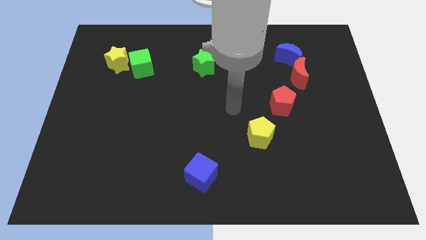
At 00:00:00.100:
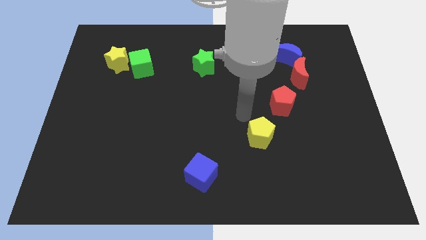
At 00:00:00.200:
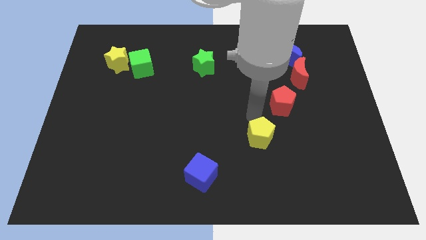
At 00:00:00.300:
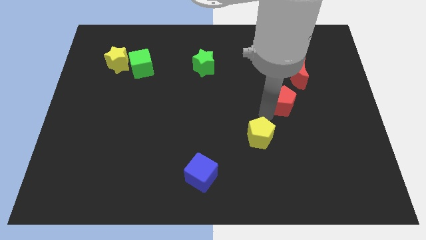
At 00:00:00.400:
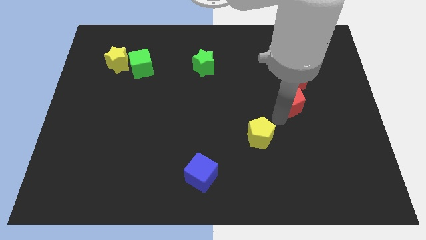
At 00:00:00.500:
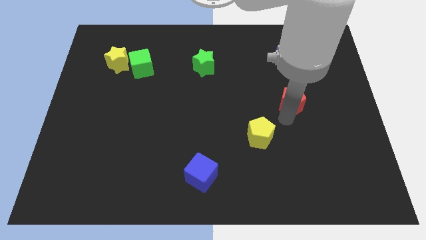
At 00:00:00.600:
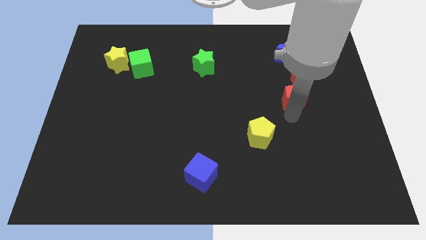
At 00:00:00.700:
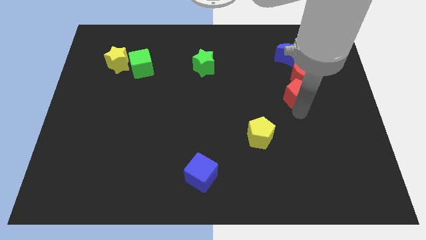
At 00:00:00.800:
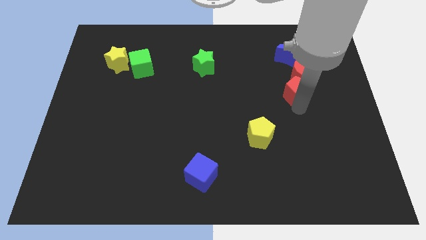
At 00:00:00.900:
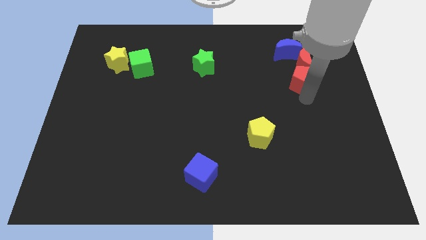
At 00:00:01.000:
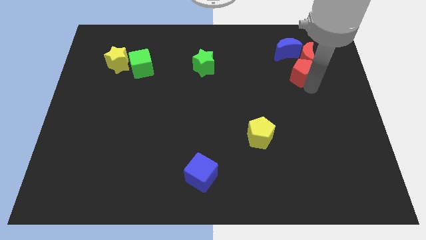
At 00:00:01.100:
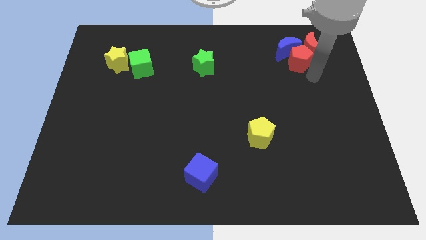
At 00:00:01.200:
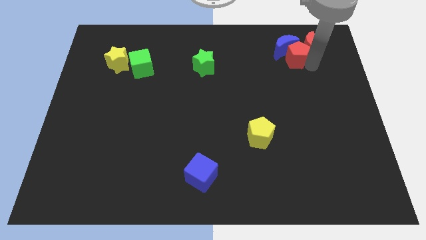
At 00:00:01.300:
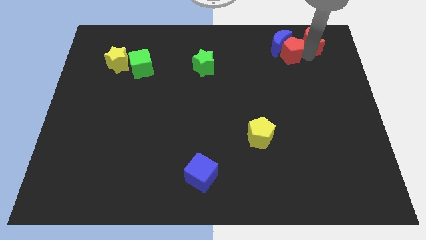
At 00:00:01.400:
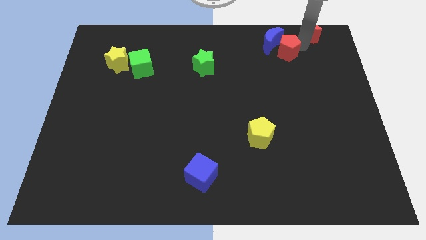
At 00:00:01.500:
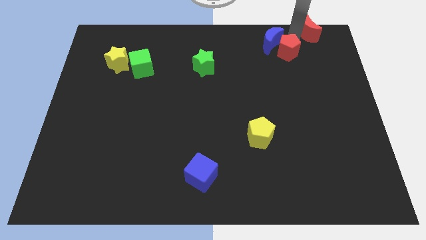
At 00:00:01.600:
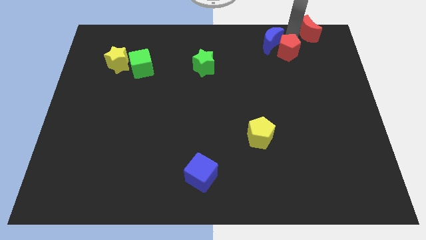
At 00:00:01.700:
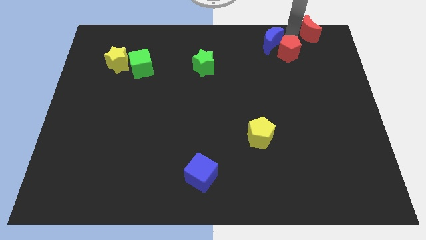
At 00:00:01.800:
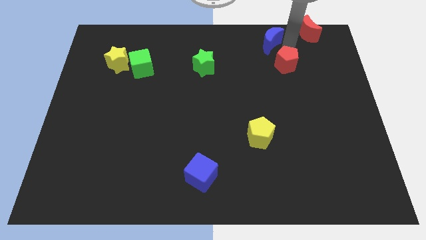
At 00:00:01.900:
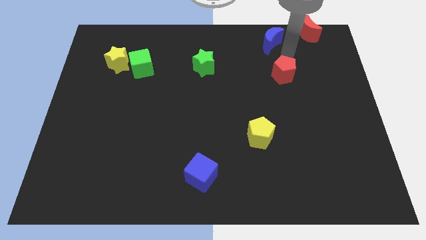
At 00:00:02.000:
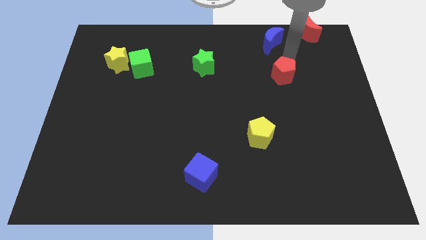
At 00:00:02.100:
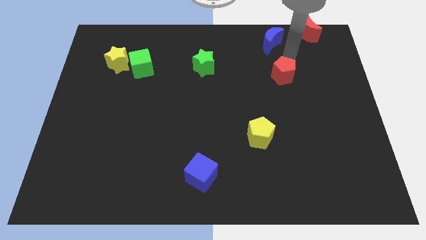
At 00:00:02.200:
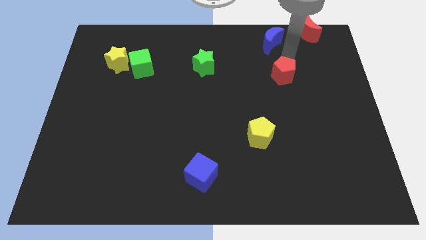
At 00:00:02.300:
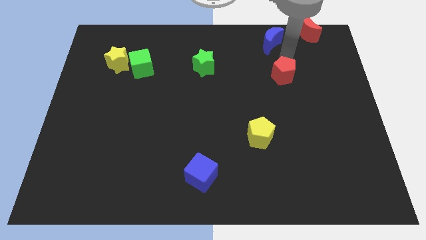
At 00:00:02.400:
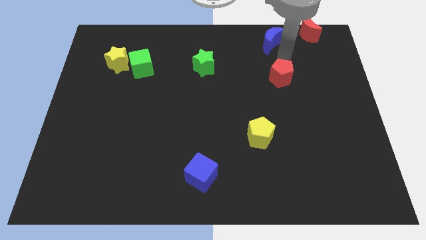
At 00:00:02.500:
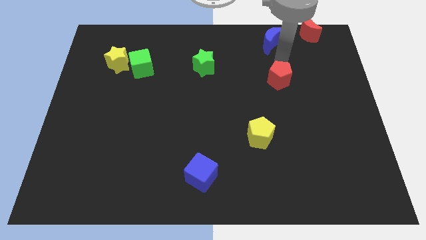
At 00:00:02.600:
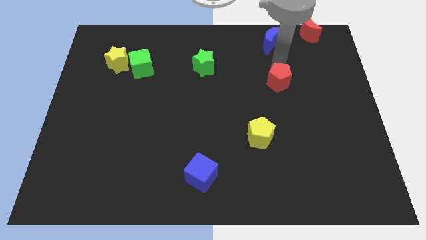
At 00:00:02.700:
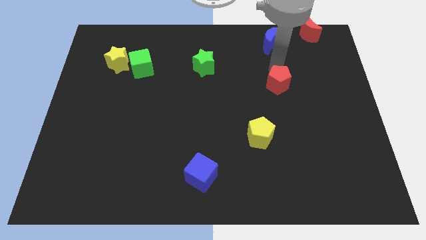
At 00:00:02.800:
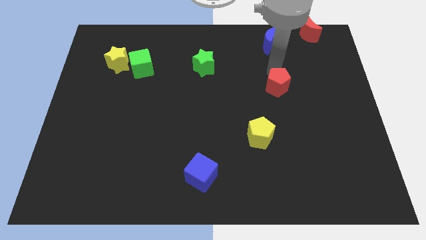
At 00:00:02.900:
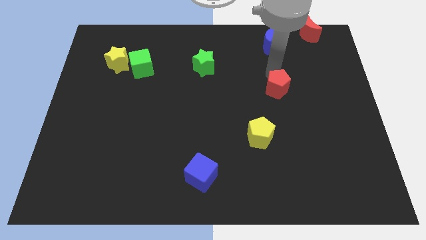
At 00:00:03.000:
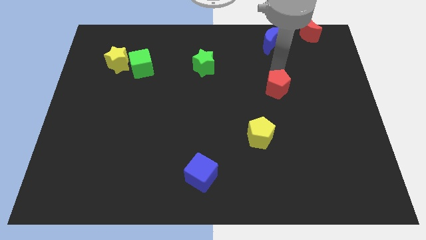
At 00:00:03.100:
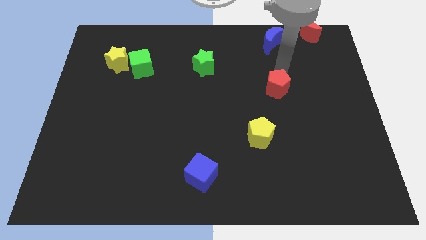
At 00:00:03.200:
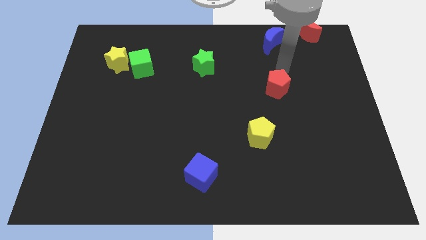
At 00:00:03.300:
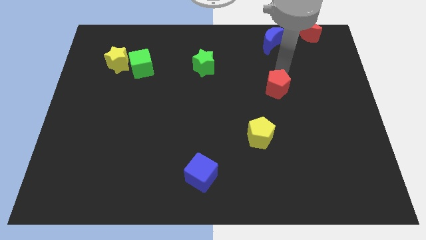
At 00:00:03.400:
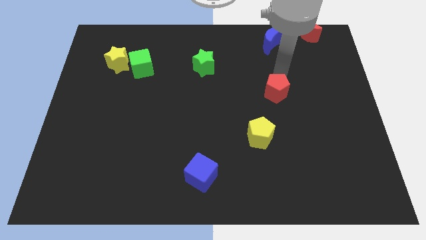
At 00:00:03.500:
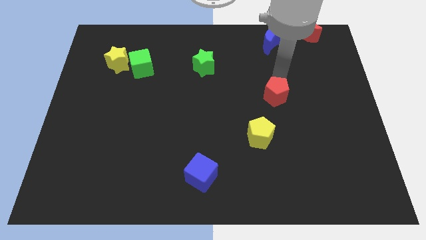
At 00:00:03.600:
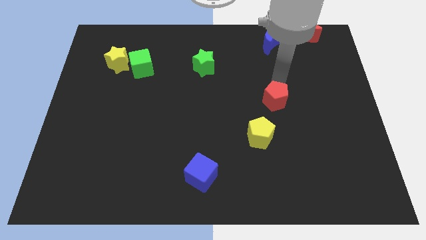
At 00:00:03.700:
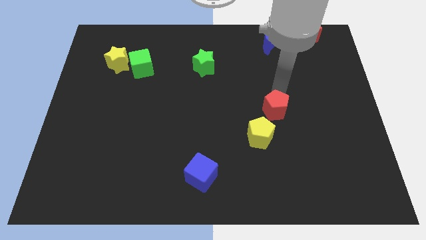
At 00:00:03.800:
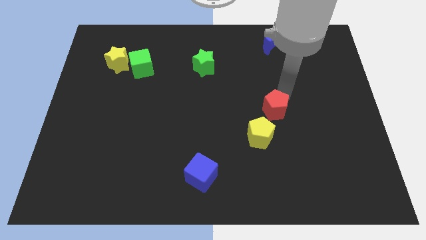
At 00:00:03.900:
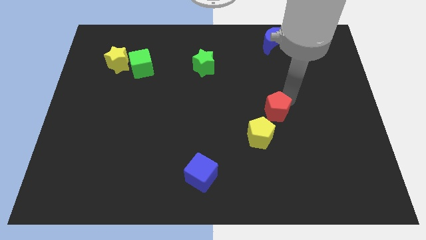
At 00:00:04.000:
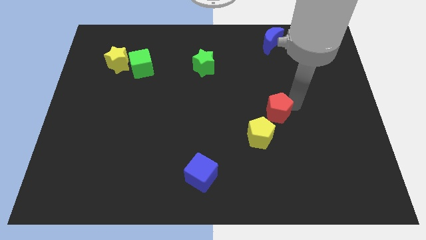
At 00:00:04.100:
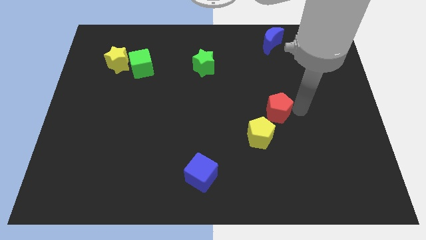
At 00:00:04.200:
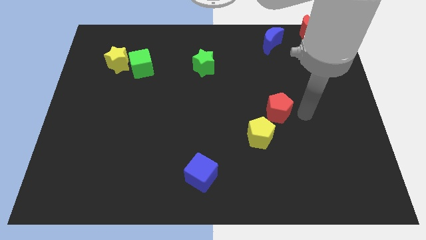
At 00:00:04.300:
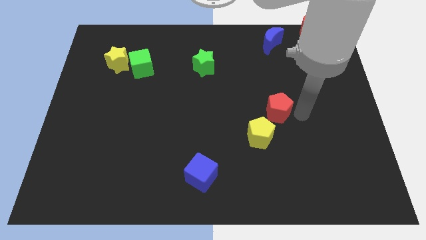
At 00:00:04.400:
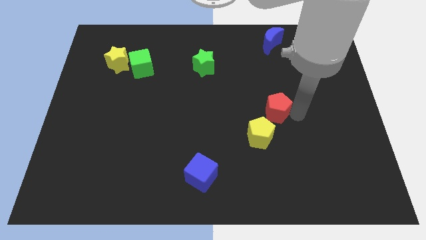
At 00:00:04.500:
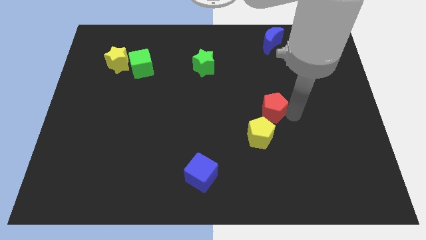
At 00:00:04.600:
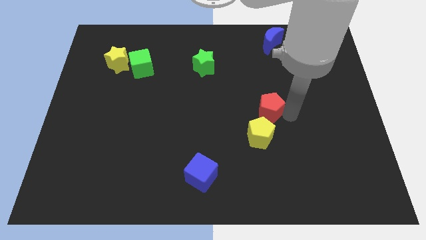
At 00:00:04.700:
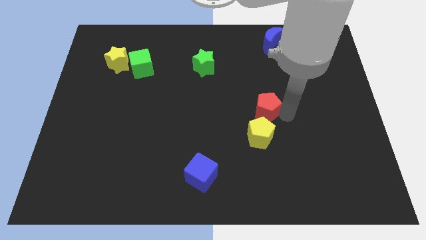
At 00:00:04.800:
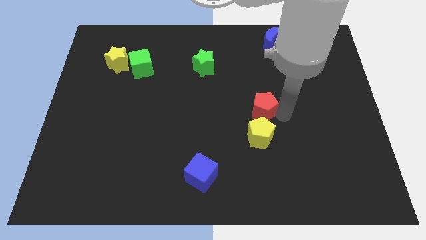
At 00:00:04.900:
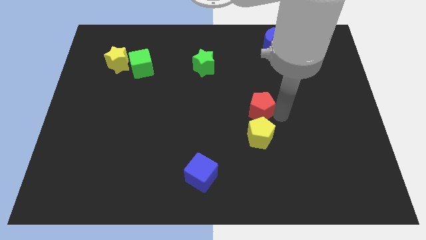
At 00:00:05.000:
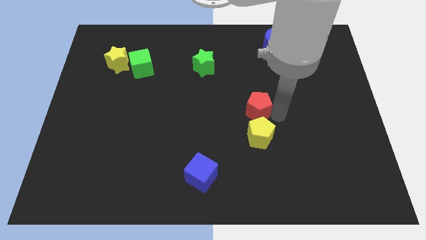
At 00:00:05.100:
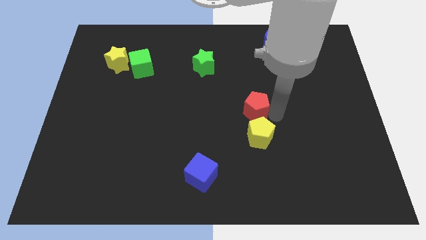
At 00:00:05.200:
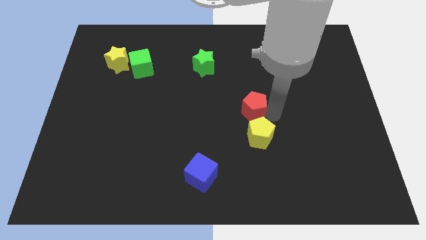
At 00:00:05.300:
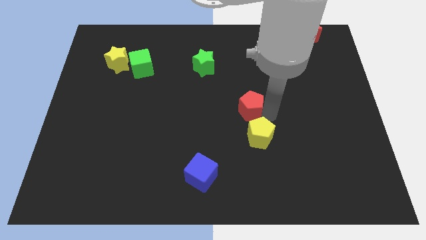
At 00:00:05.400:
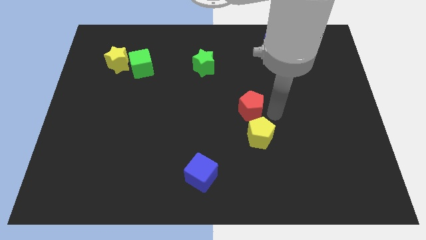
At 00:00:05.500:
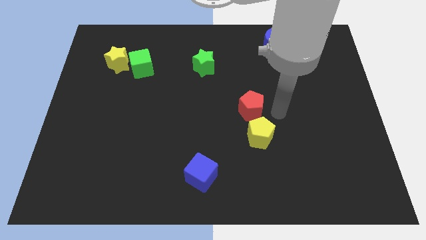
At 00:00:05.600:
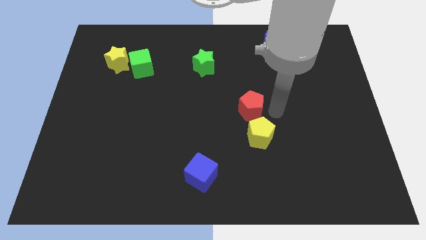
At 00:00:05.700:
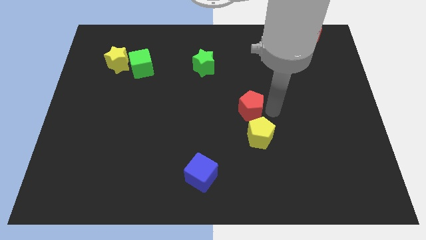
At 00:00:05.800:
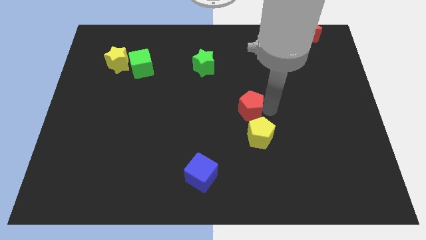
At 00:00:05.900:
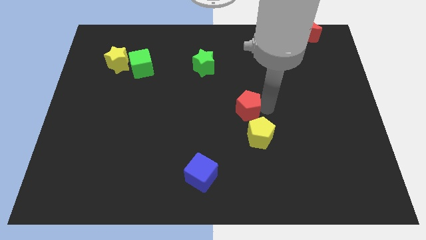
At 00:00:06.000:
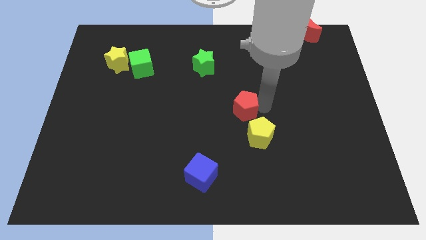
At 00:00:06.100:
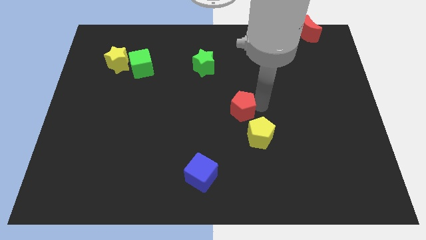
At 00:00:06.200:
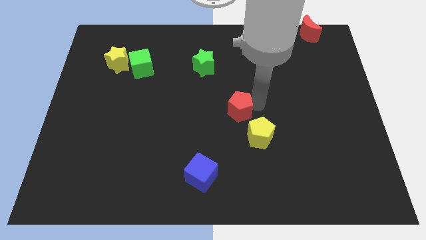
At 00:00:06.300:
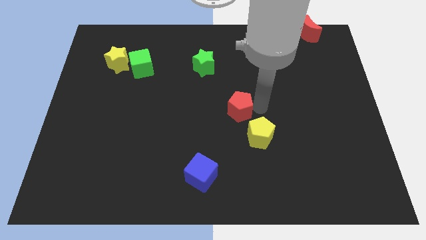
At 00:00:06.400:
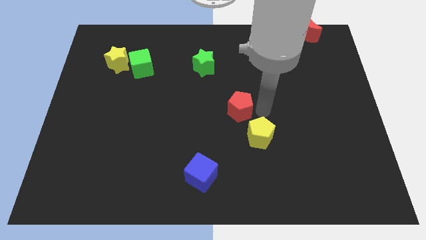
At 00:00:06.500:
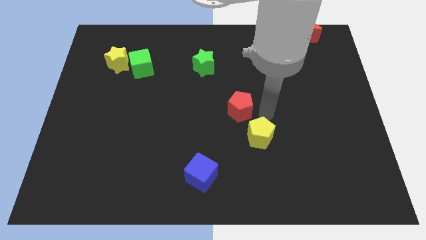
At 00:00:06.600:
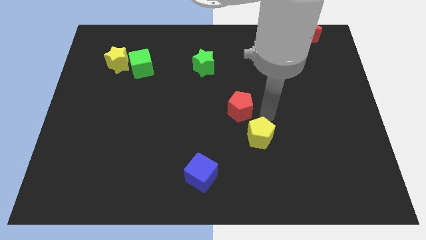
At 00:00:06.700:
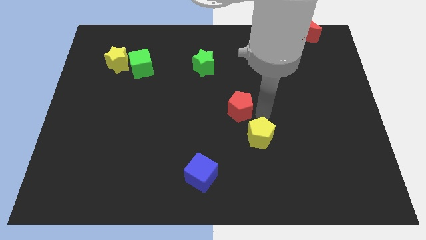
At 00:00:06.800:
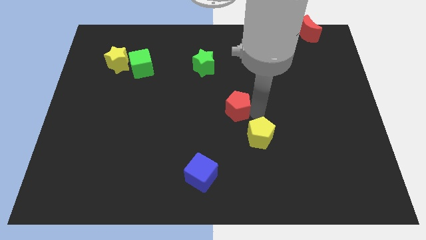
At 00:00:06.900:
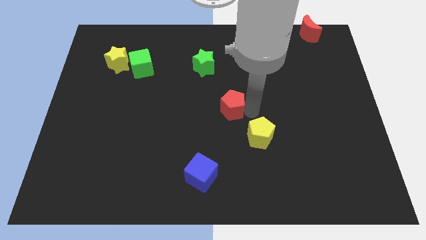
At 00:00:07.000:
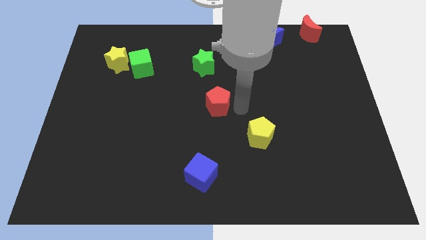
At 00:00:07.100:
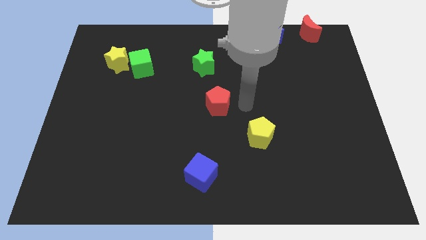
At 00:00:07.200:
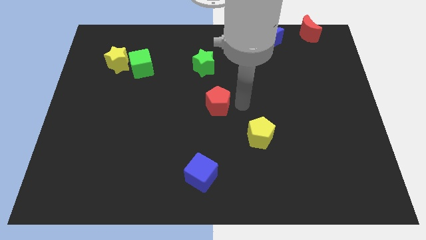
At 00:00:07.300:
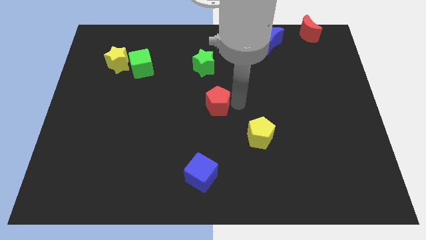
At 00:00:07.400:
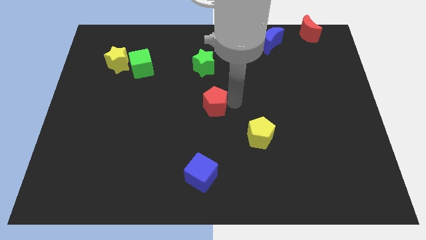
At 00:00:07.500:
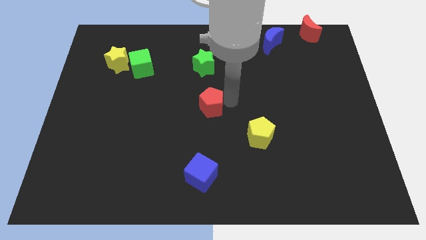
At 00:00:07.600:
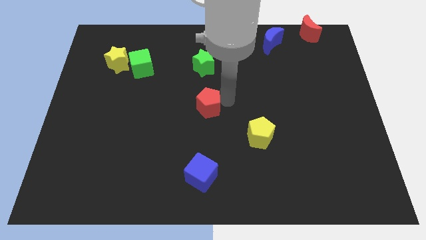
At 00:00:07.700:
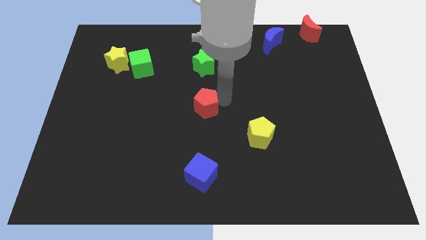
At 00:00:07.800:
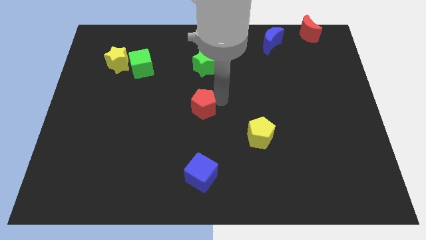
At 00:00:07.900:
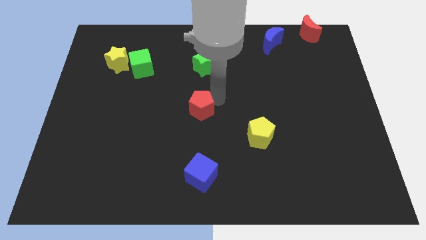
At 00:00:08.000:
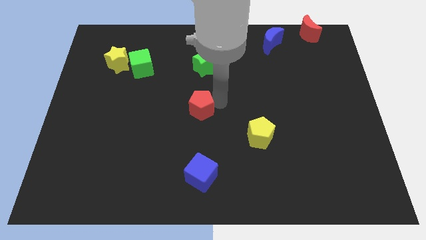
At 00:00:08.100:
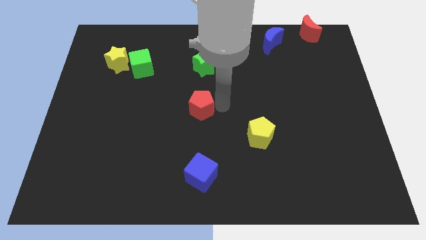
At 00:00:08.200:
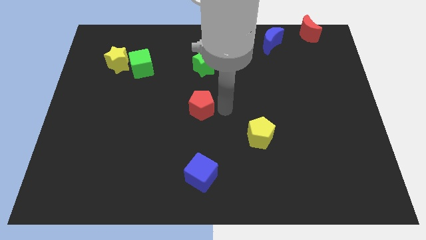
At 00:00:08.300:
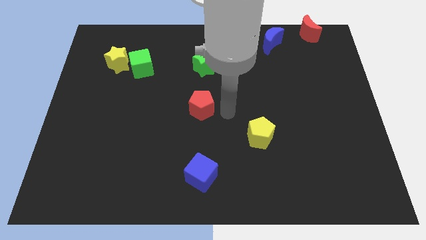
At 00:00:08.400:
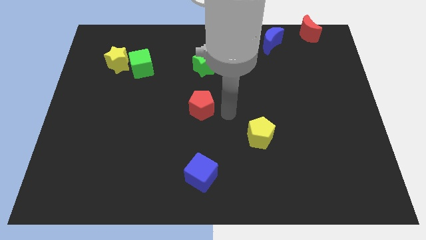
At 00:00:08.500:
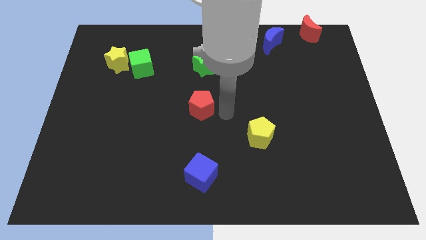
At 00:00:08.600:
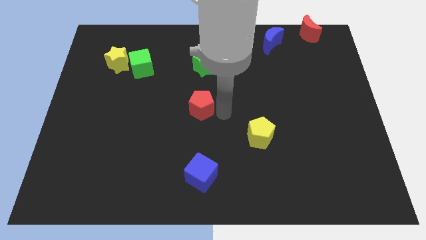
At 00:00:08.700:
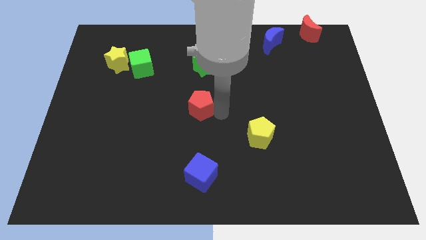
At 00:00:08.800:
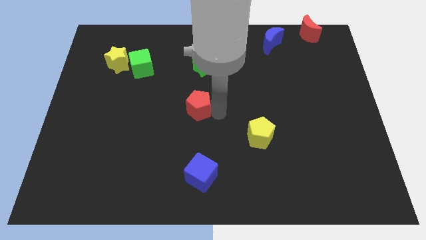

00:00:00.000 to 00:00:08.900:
slide the red pentagon to the left
